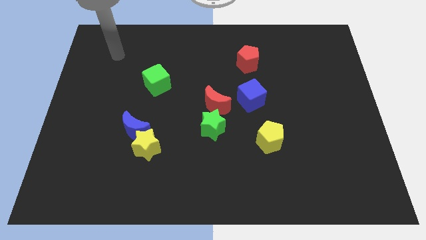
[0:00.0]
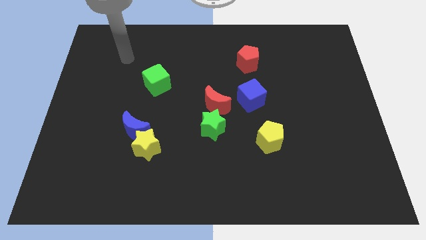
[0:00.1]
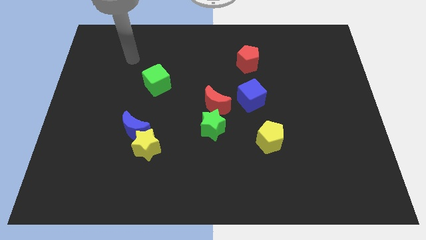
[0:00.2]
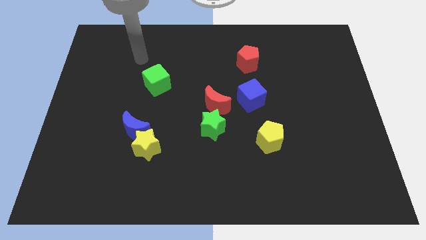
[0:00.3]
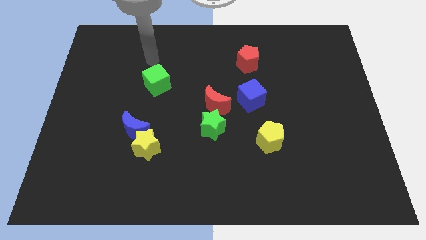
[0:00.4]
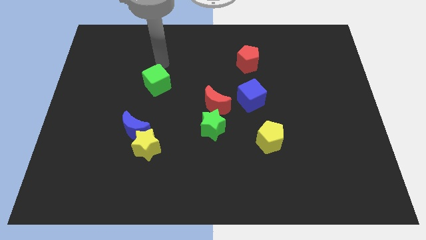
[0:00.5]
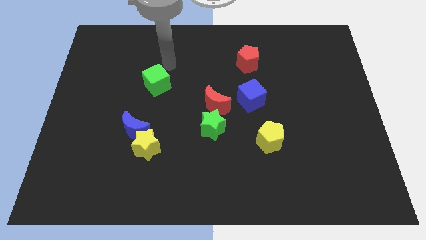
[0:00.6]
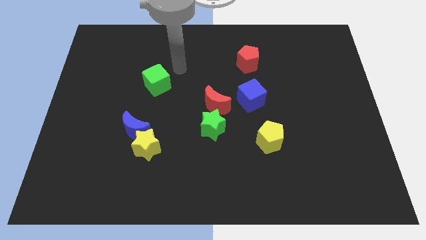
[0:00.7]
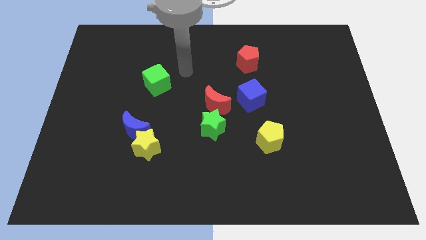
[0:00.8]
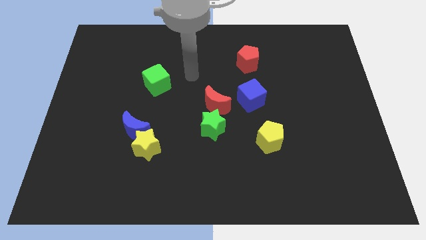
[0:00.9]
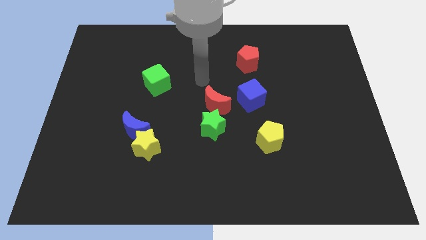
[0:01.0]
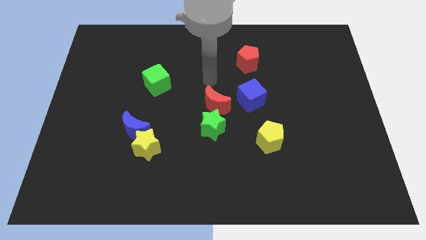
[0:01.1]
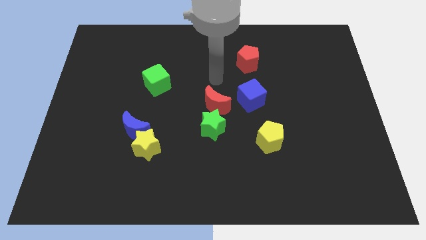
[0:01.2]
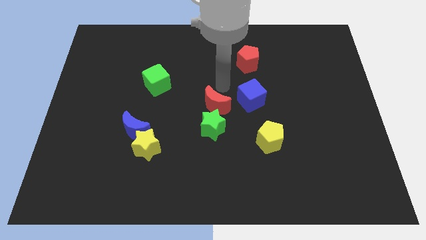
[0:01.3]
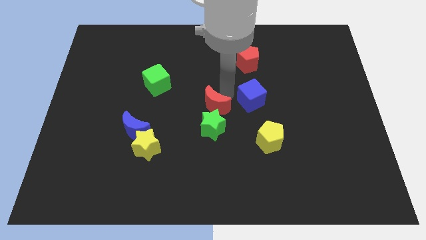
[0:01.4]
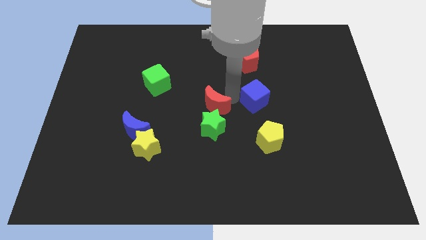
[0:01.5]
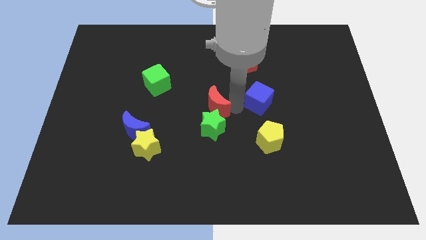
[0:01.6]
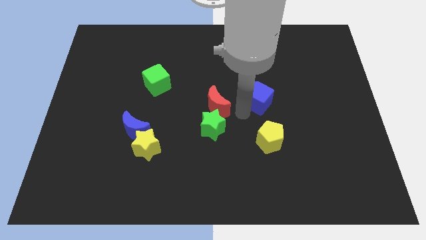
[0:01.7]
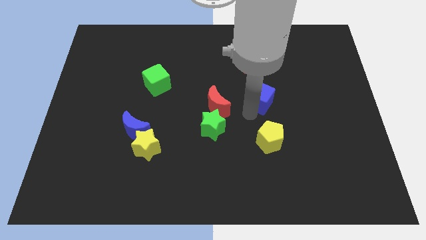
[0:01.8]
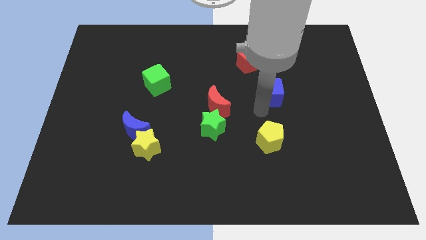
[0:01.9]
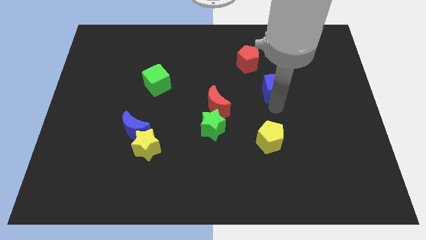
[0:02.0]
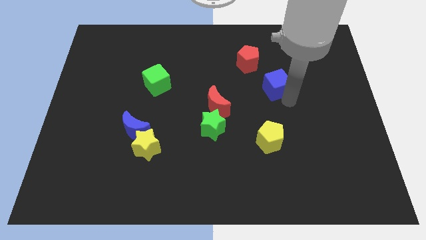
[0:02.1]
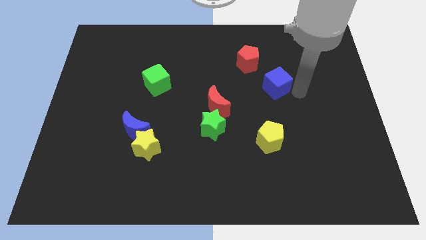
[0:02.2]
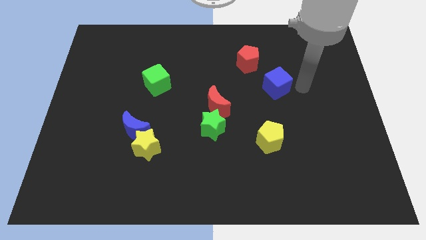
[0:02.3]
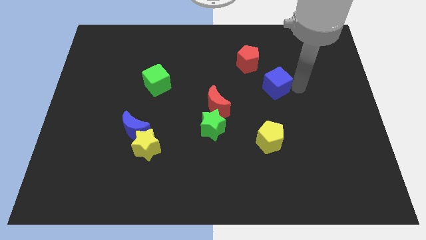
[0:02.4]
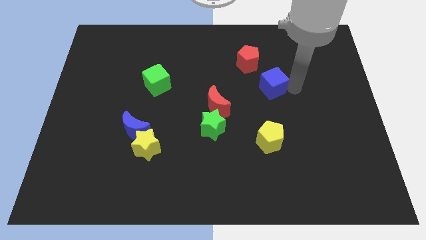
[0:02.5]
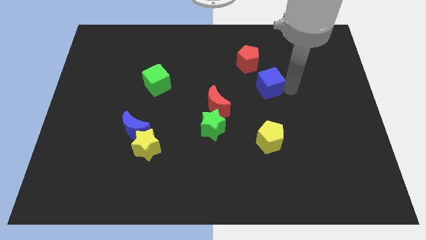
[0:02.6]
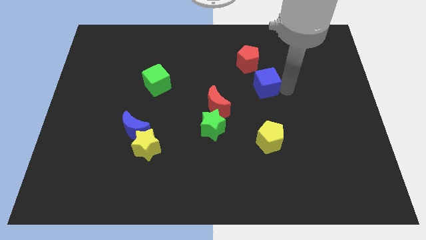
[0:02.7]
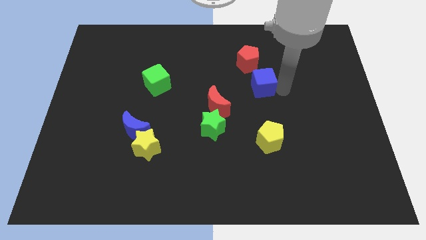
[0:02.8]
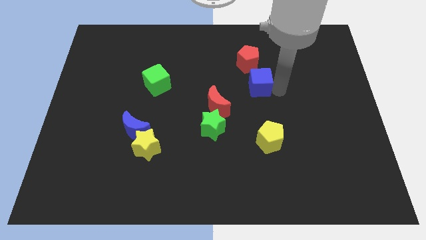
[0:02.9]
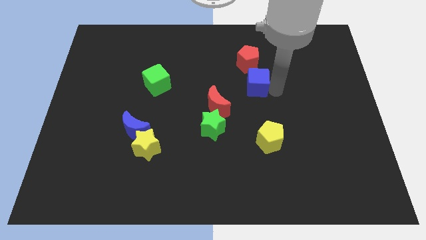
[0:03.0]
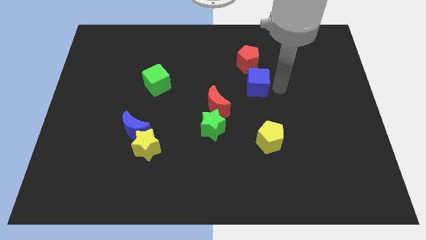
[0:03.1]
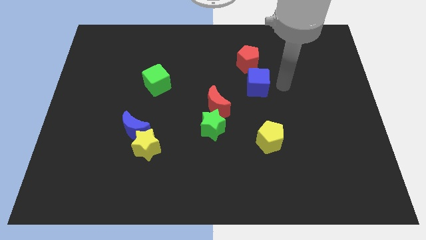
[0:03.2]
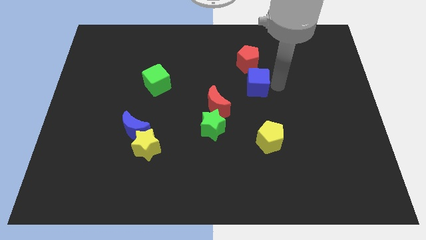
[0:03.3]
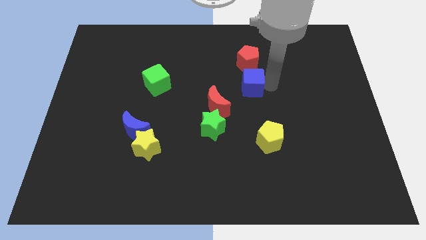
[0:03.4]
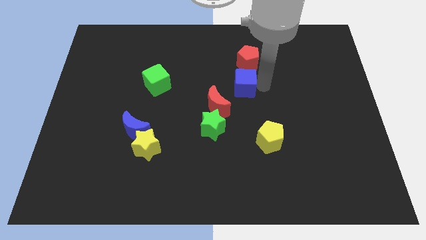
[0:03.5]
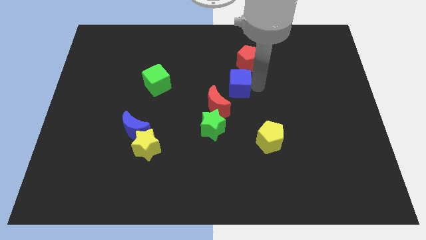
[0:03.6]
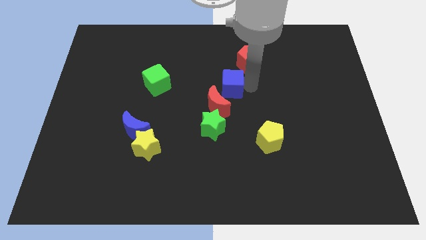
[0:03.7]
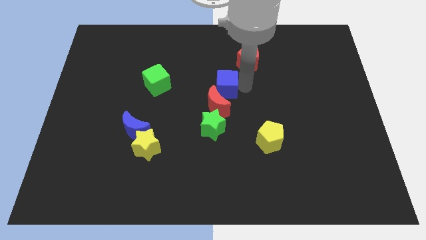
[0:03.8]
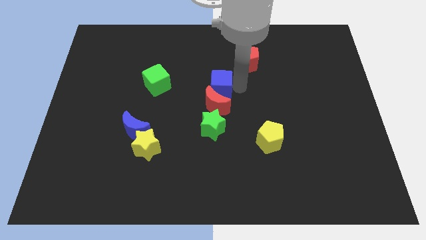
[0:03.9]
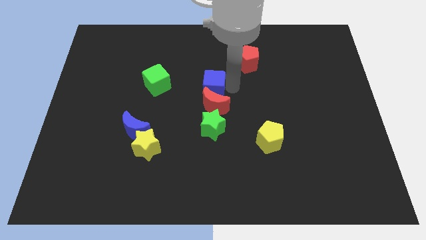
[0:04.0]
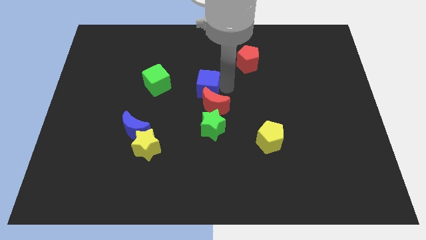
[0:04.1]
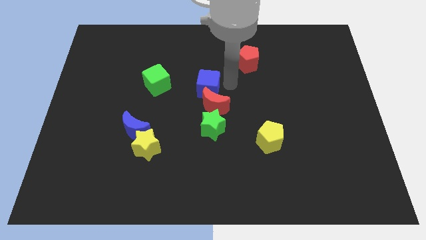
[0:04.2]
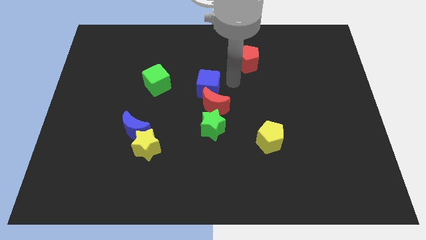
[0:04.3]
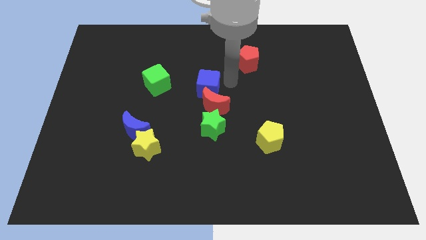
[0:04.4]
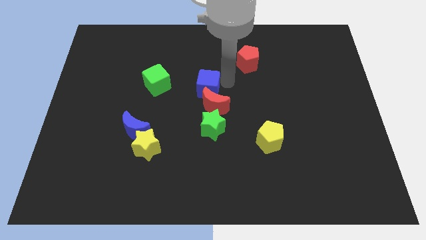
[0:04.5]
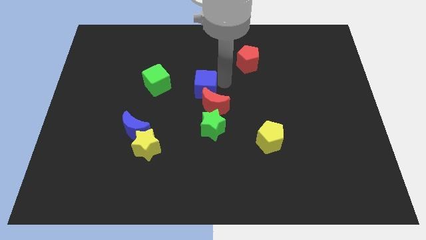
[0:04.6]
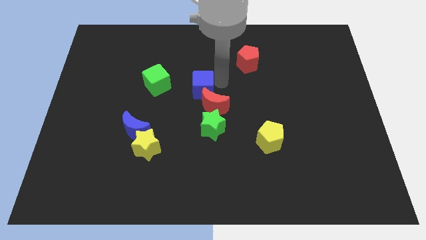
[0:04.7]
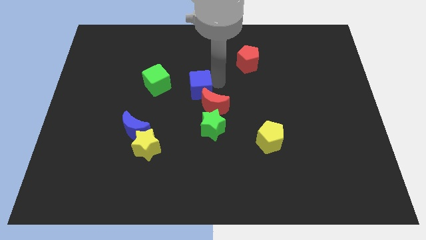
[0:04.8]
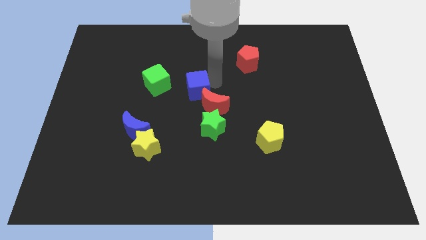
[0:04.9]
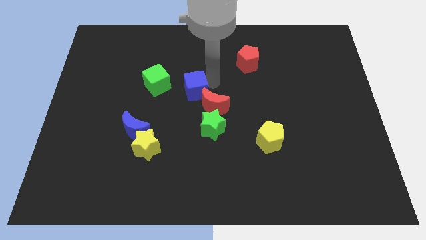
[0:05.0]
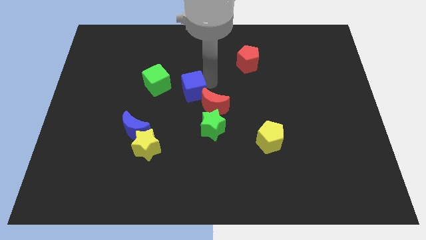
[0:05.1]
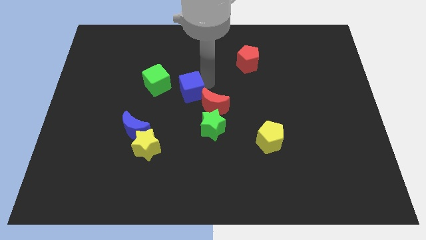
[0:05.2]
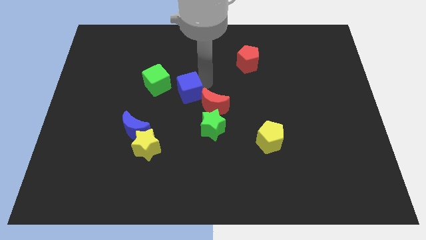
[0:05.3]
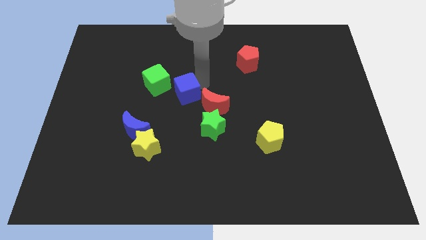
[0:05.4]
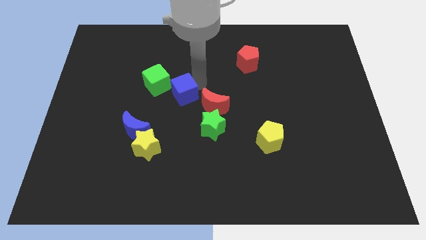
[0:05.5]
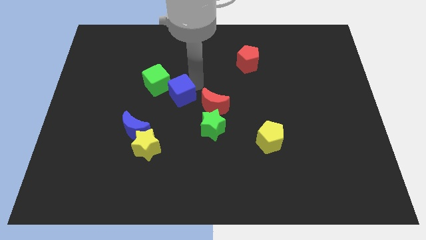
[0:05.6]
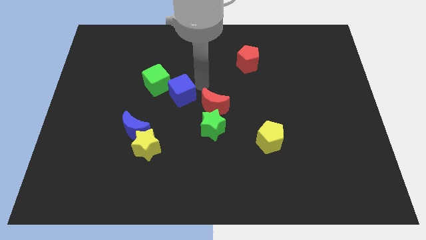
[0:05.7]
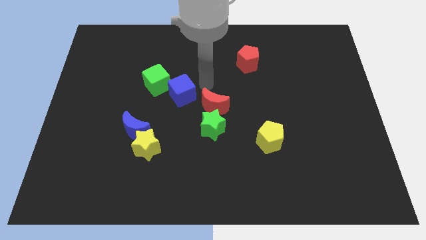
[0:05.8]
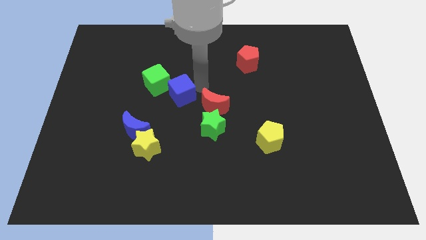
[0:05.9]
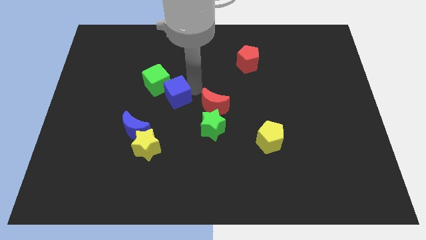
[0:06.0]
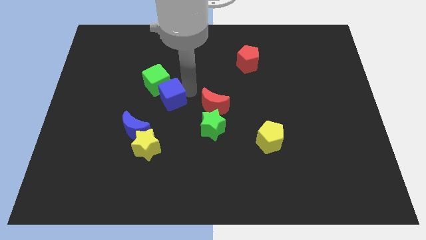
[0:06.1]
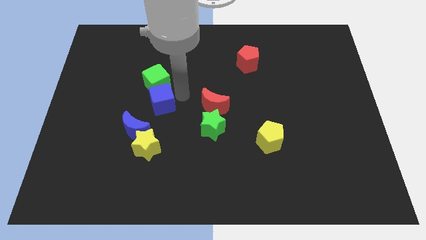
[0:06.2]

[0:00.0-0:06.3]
move the blue cube left

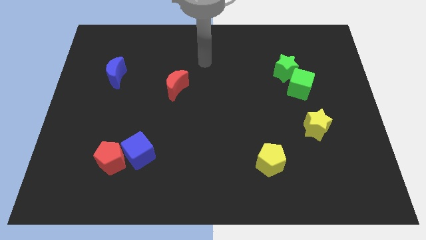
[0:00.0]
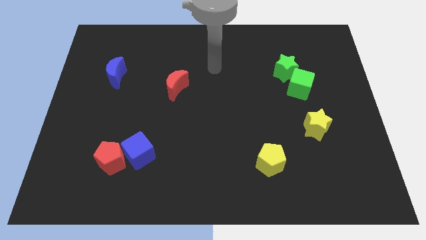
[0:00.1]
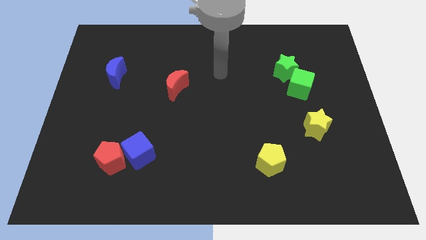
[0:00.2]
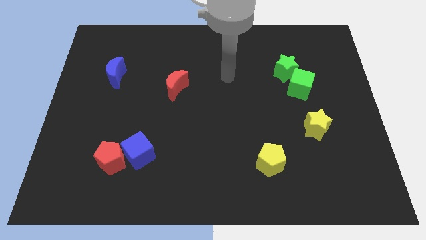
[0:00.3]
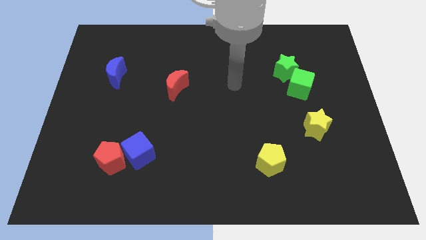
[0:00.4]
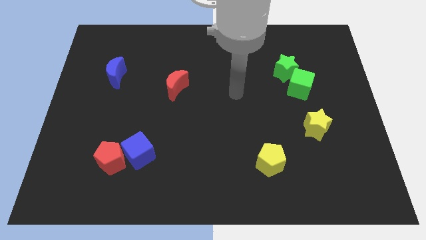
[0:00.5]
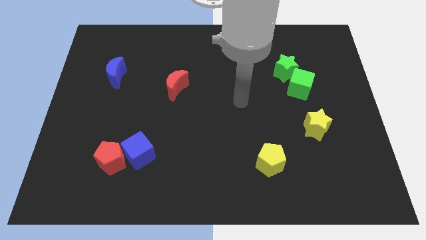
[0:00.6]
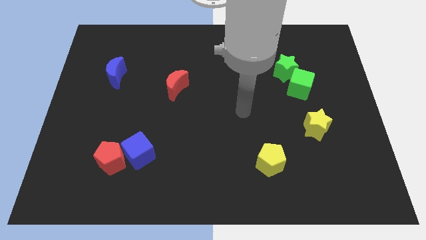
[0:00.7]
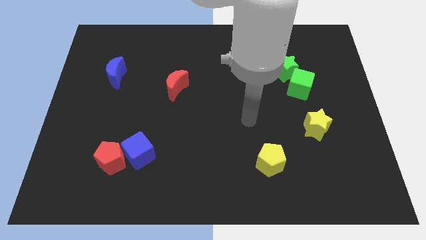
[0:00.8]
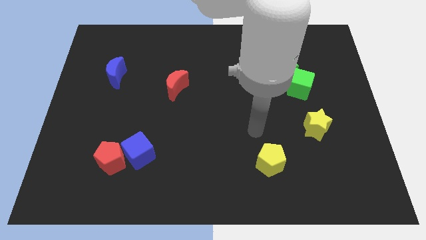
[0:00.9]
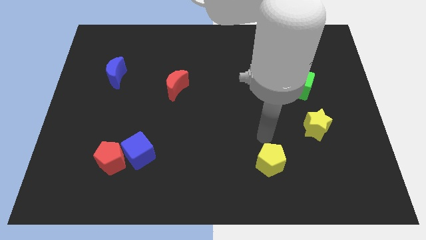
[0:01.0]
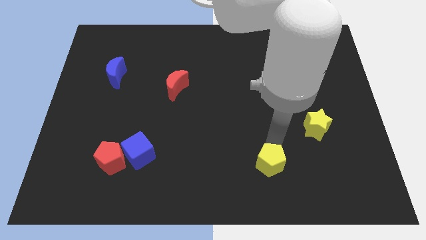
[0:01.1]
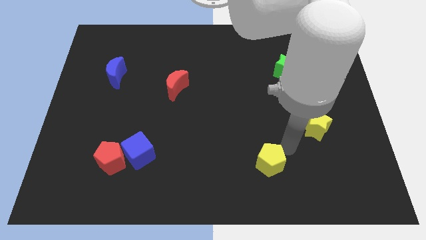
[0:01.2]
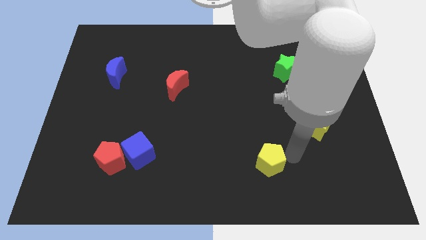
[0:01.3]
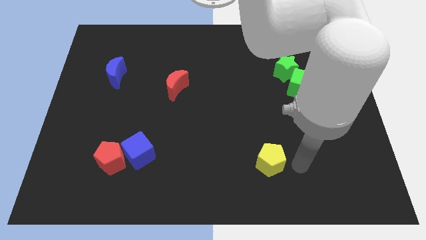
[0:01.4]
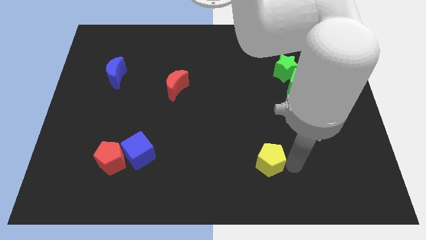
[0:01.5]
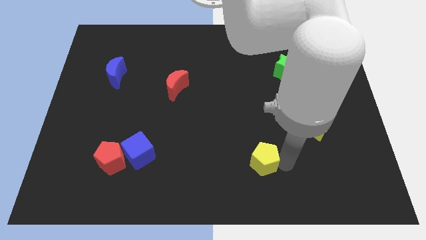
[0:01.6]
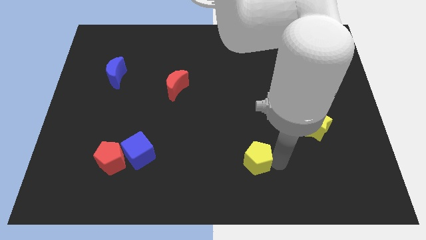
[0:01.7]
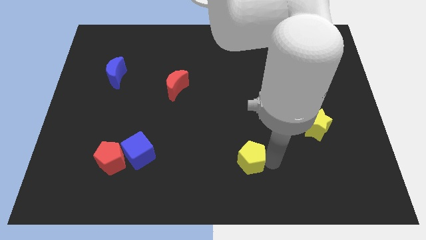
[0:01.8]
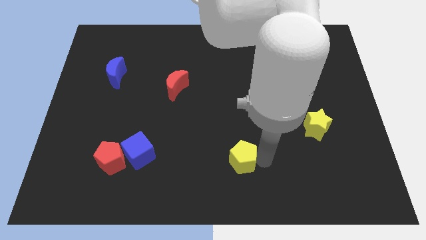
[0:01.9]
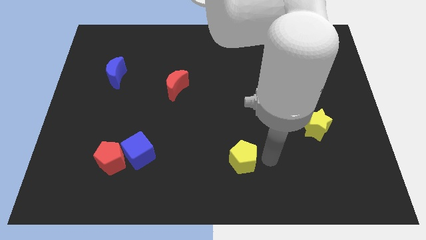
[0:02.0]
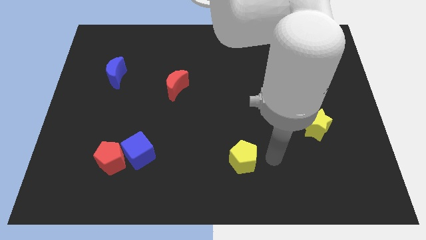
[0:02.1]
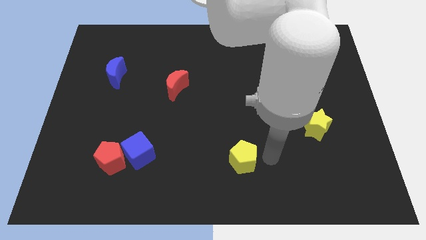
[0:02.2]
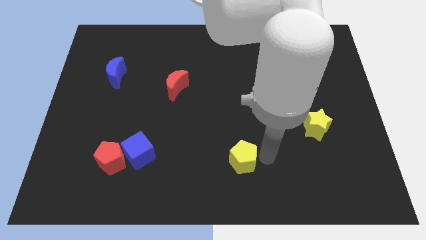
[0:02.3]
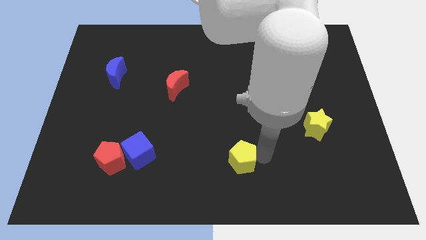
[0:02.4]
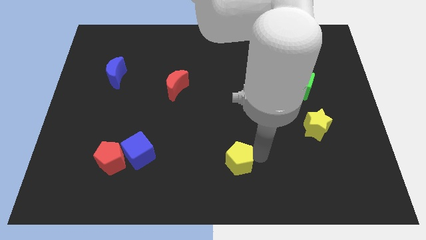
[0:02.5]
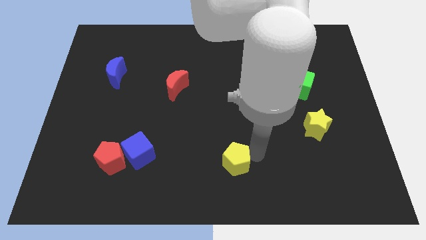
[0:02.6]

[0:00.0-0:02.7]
slide the yellow pentagon a little left
